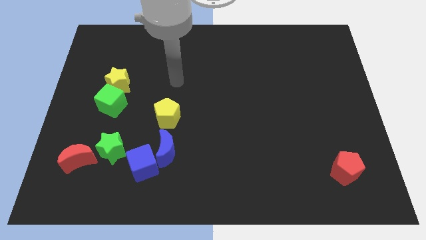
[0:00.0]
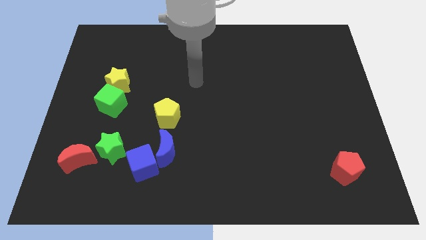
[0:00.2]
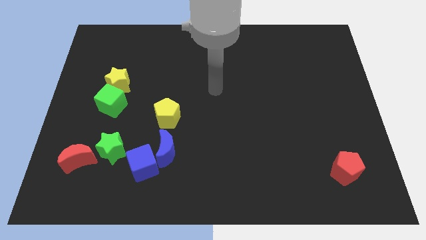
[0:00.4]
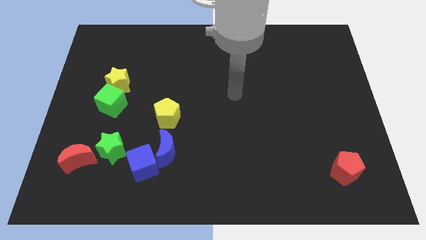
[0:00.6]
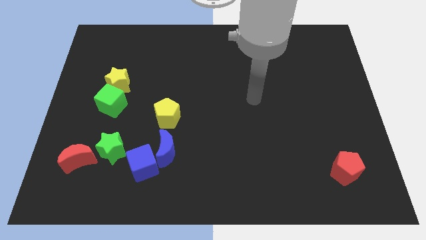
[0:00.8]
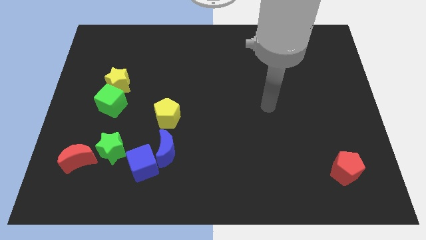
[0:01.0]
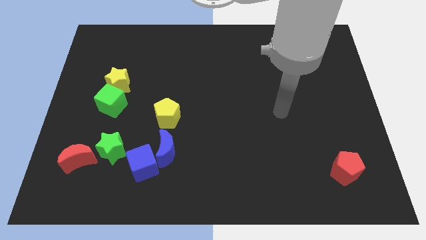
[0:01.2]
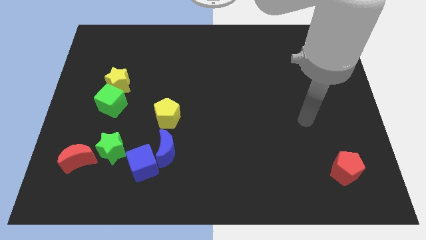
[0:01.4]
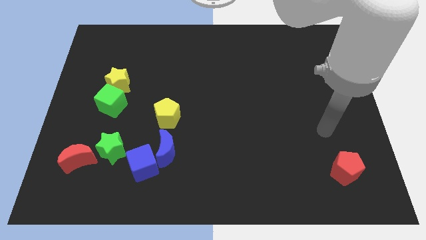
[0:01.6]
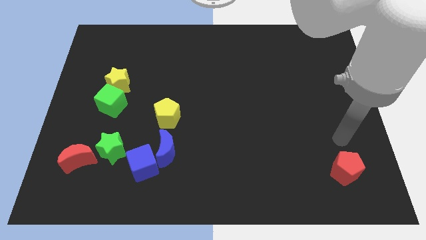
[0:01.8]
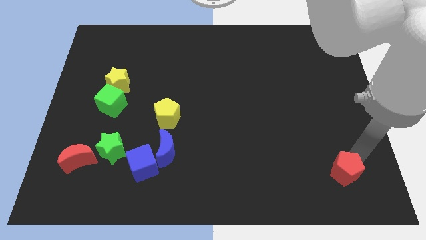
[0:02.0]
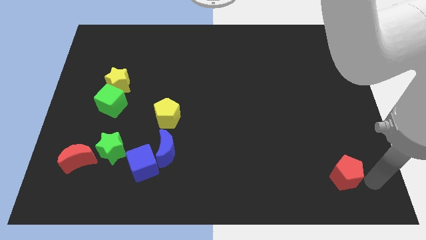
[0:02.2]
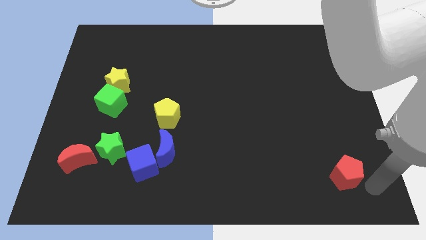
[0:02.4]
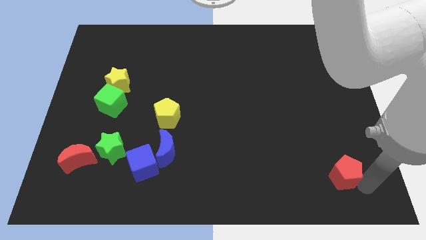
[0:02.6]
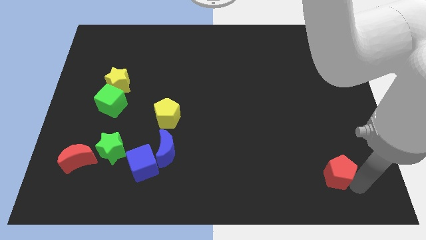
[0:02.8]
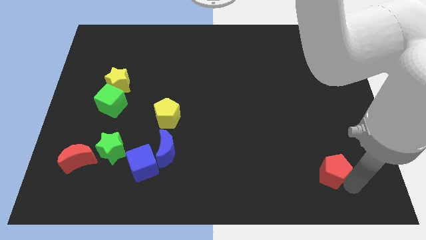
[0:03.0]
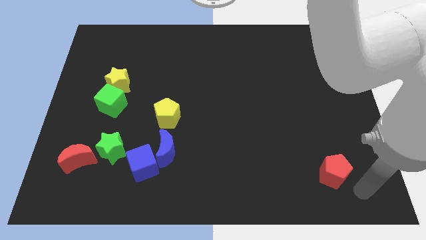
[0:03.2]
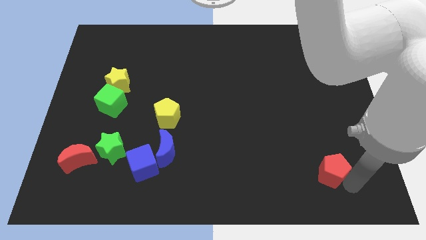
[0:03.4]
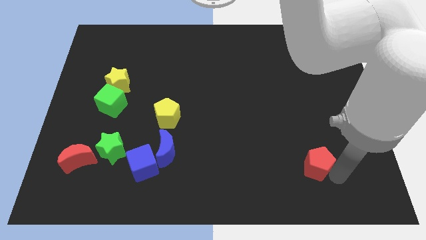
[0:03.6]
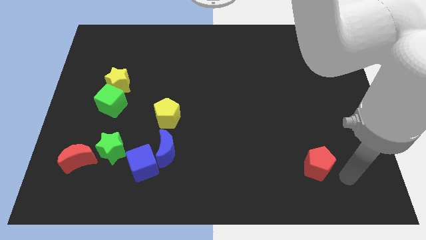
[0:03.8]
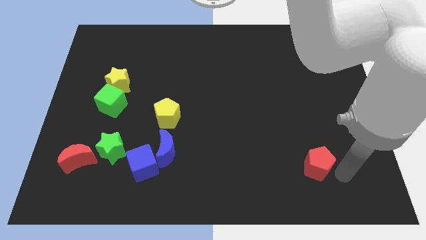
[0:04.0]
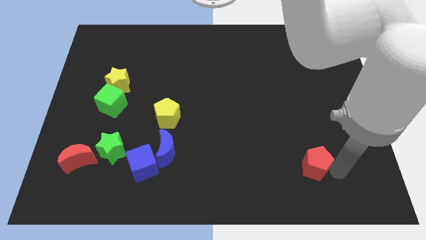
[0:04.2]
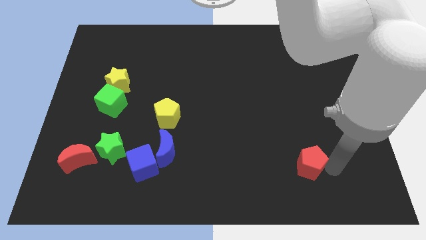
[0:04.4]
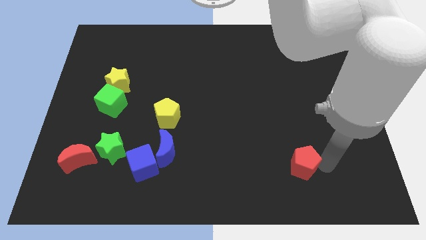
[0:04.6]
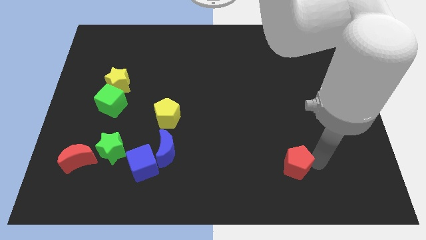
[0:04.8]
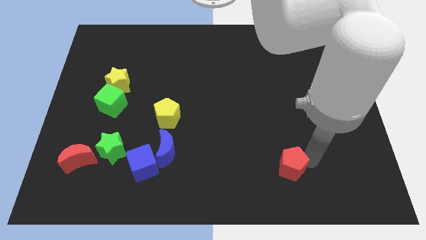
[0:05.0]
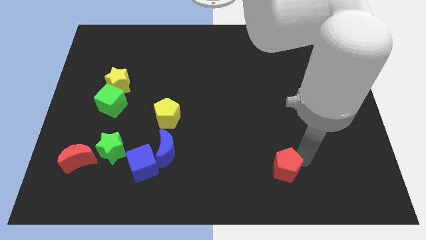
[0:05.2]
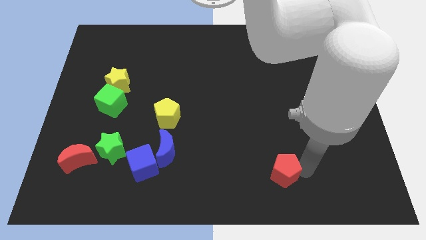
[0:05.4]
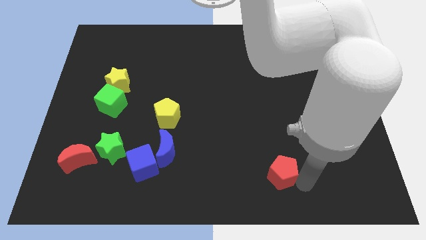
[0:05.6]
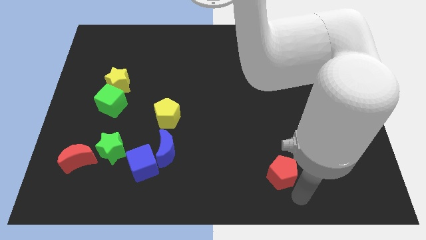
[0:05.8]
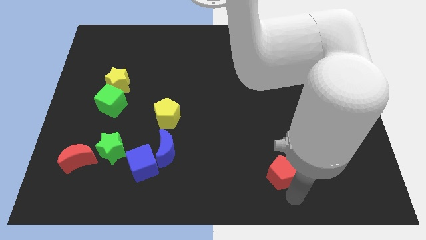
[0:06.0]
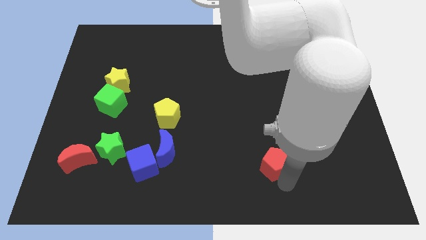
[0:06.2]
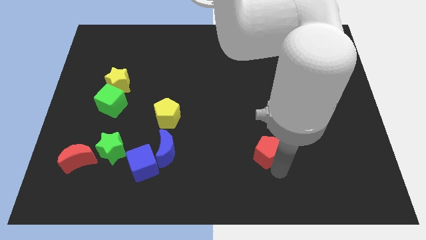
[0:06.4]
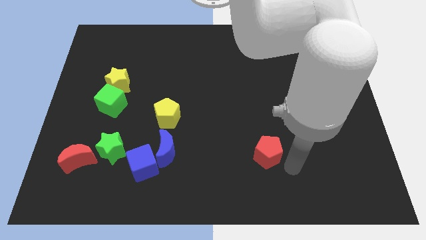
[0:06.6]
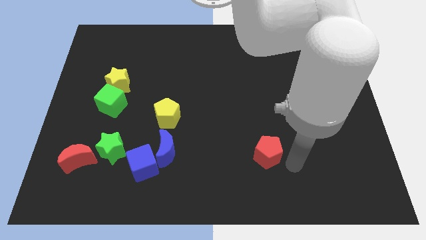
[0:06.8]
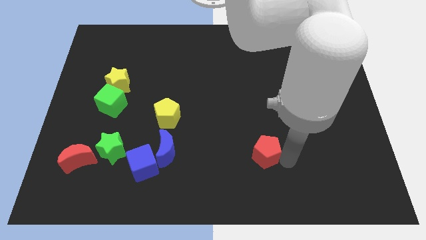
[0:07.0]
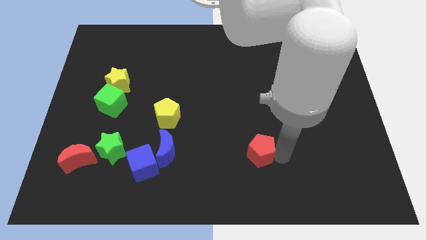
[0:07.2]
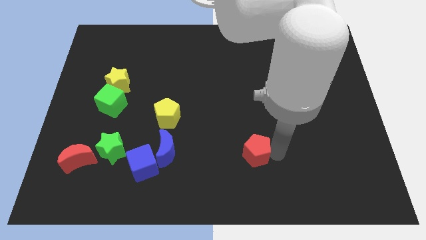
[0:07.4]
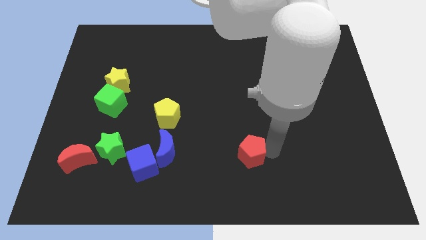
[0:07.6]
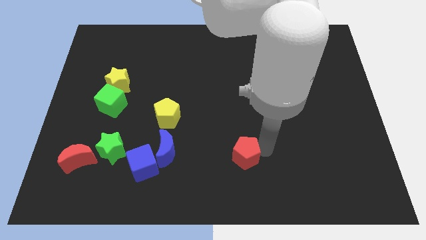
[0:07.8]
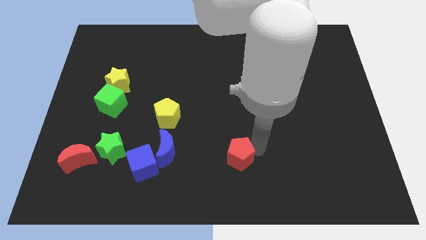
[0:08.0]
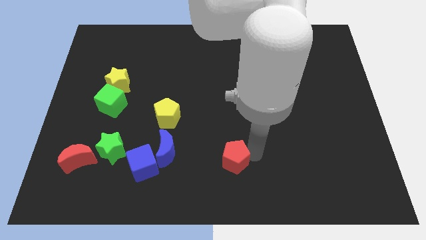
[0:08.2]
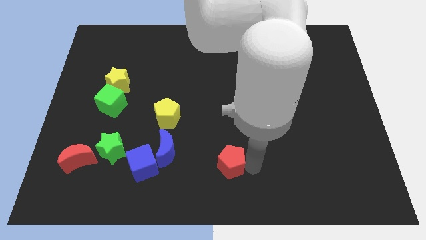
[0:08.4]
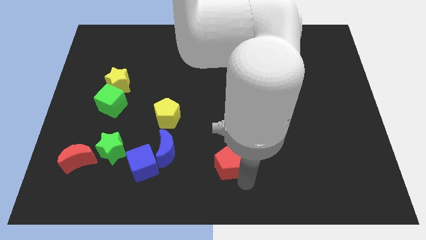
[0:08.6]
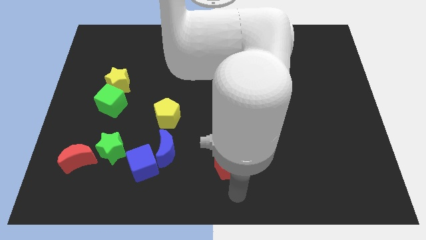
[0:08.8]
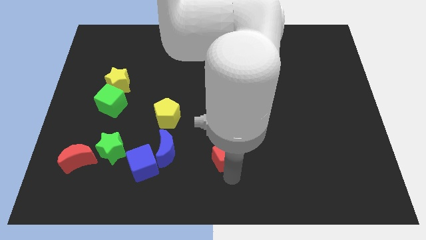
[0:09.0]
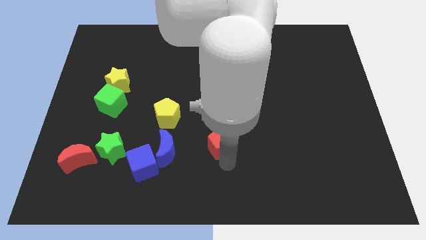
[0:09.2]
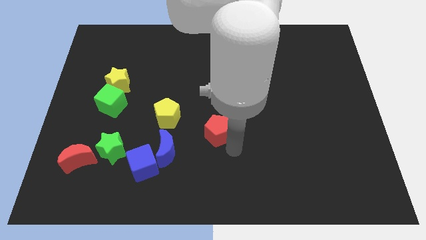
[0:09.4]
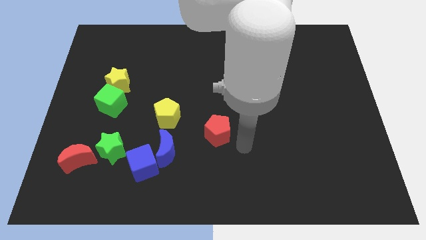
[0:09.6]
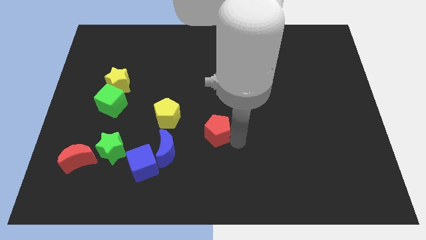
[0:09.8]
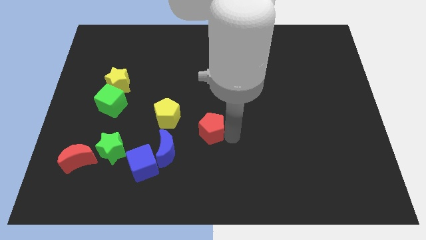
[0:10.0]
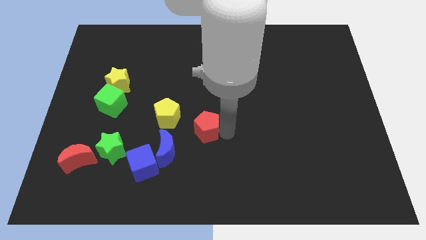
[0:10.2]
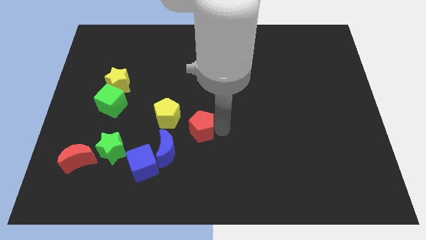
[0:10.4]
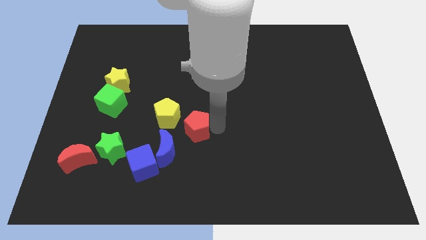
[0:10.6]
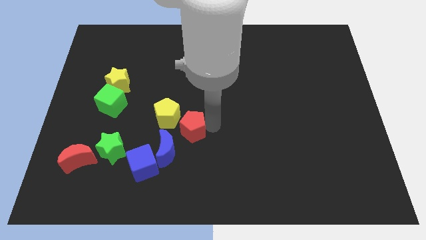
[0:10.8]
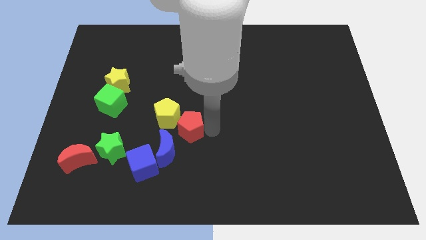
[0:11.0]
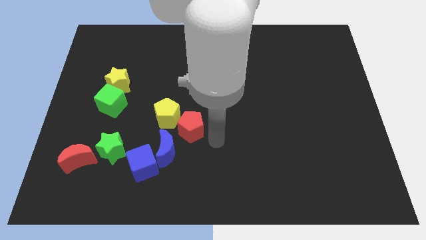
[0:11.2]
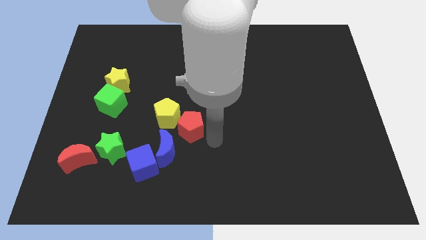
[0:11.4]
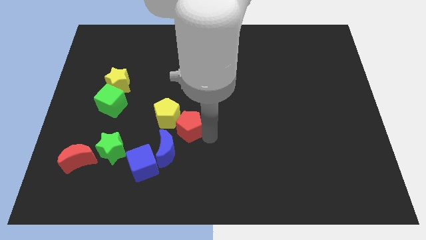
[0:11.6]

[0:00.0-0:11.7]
move the red pentagon towards the yellow pentagon
